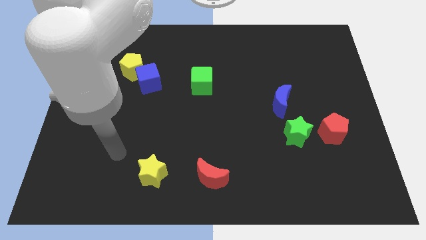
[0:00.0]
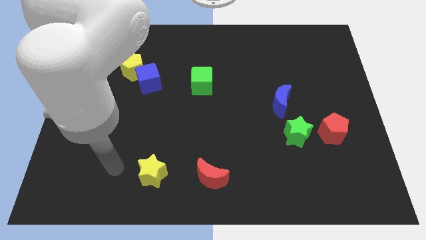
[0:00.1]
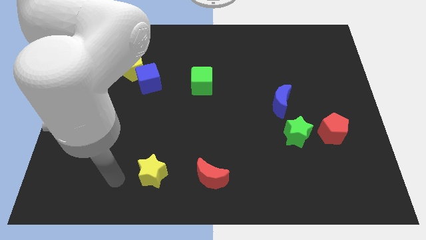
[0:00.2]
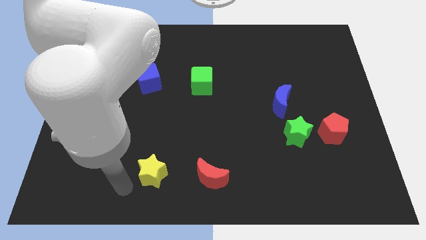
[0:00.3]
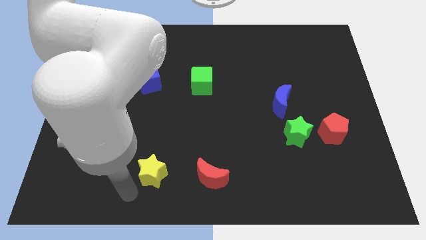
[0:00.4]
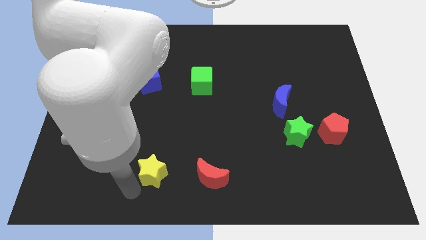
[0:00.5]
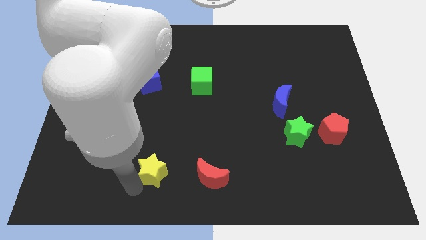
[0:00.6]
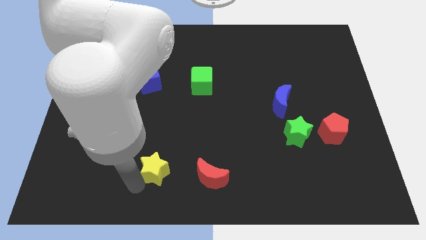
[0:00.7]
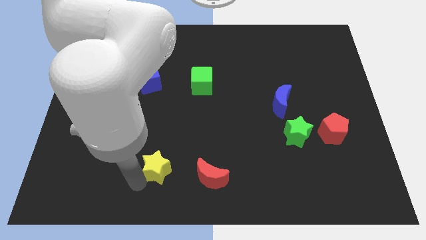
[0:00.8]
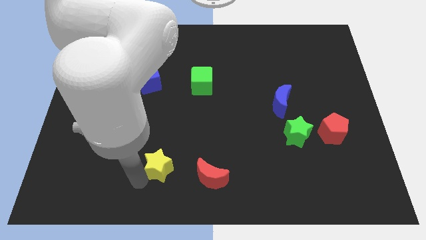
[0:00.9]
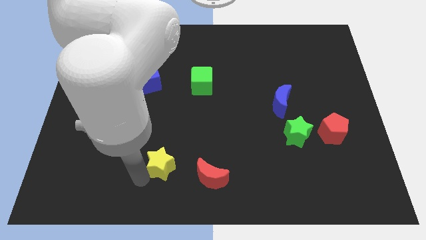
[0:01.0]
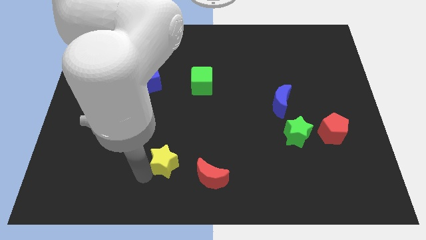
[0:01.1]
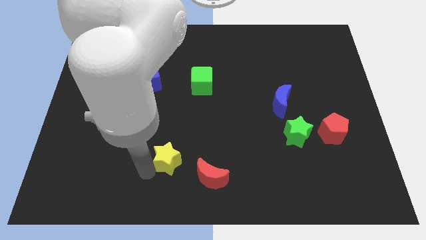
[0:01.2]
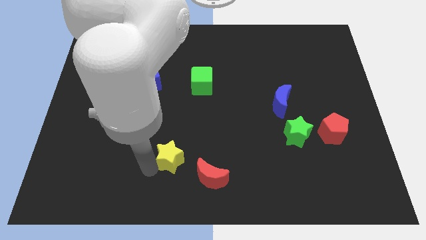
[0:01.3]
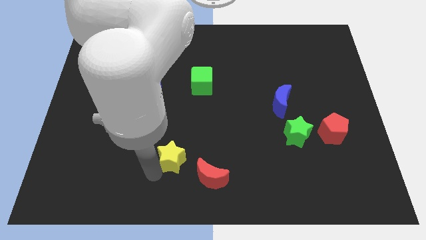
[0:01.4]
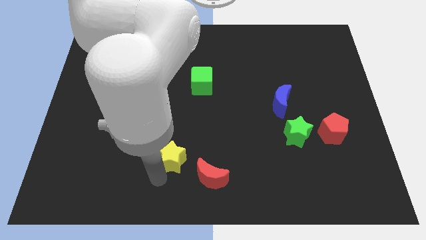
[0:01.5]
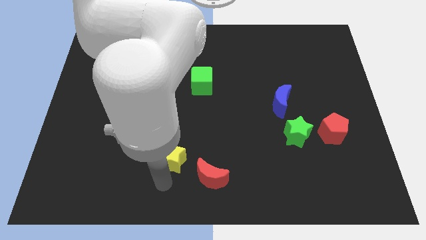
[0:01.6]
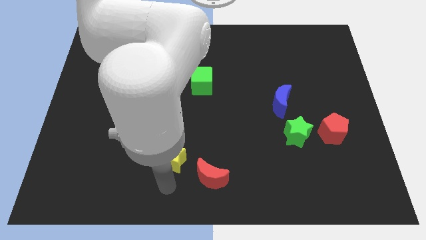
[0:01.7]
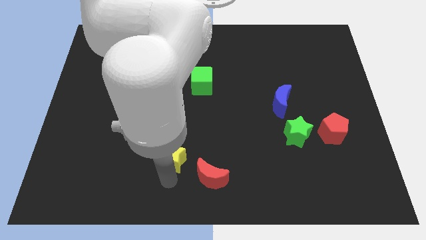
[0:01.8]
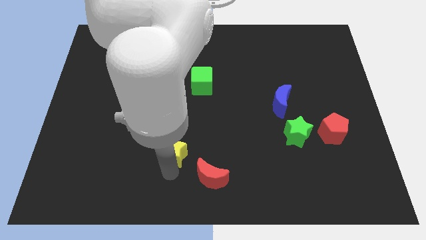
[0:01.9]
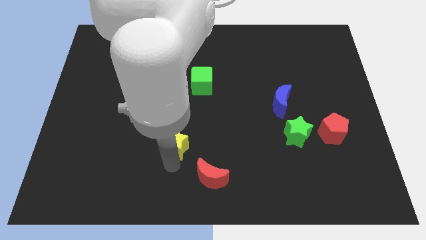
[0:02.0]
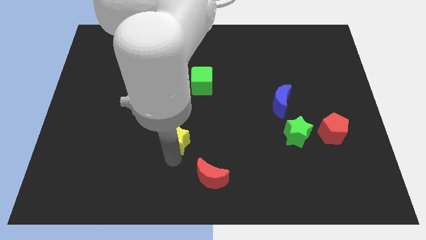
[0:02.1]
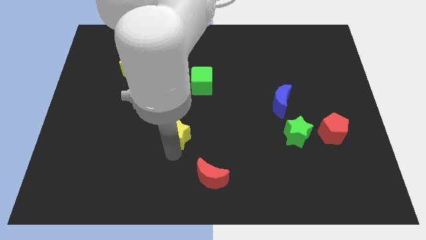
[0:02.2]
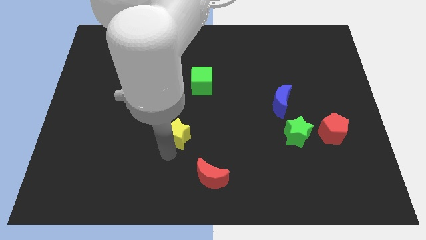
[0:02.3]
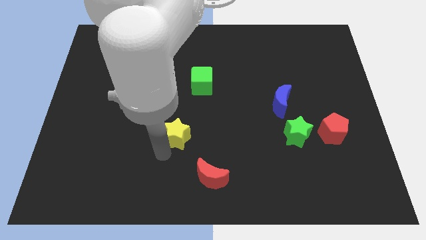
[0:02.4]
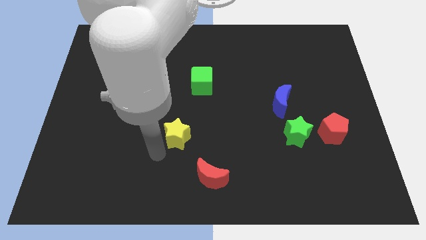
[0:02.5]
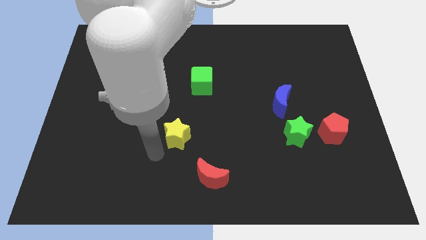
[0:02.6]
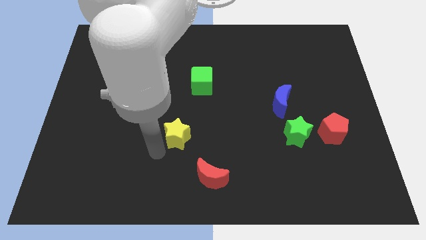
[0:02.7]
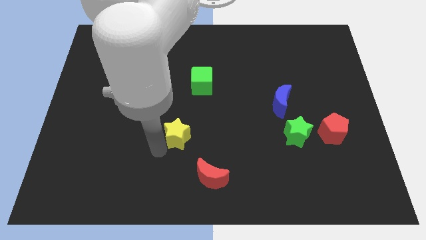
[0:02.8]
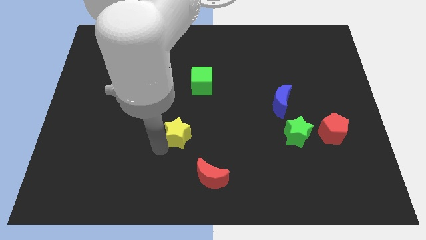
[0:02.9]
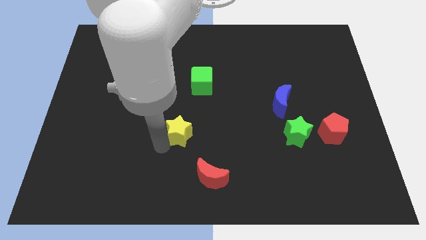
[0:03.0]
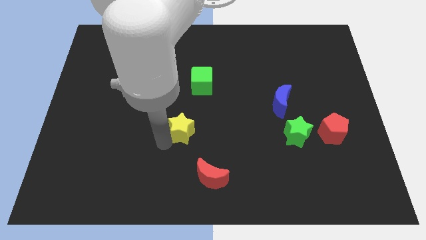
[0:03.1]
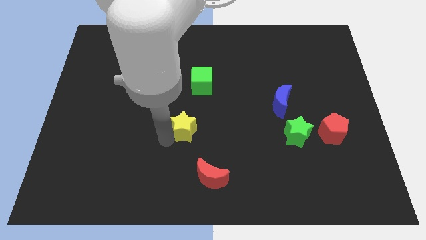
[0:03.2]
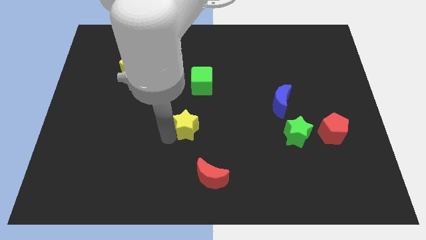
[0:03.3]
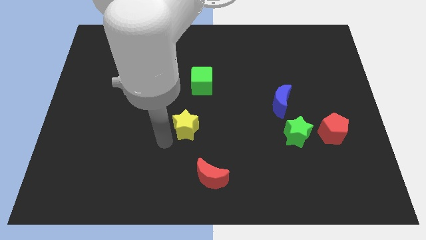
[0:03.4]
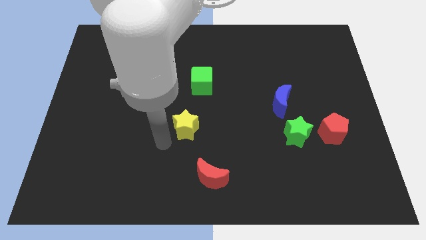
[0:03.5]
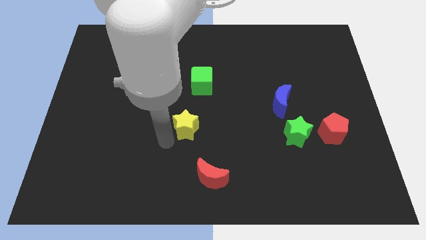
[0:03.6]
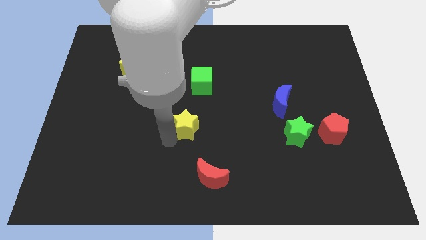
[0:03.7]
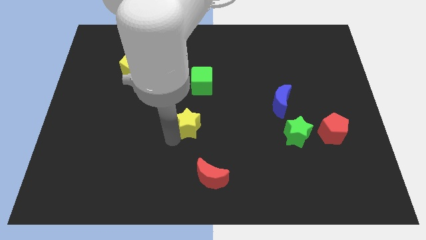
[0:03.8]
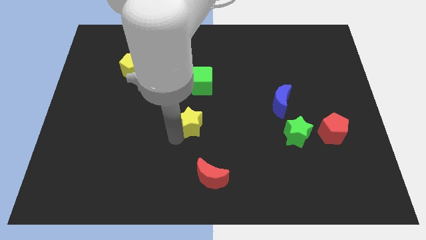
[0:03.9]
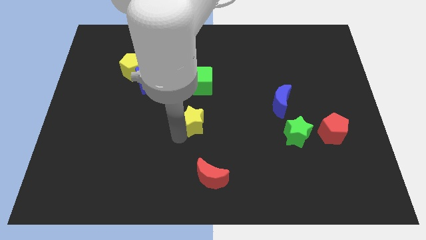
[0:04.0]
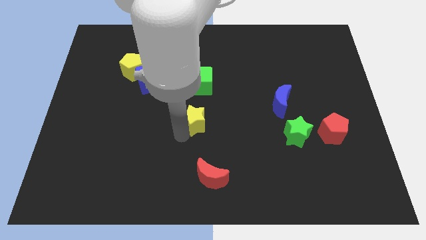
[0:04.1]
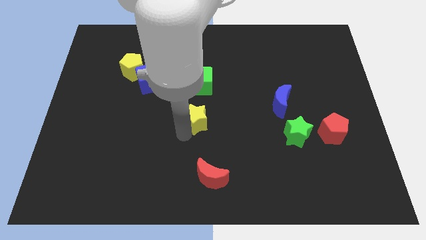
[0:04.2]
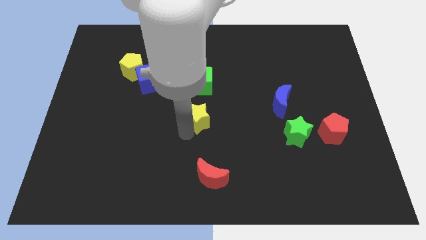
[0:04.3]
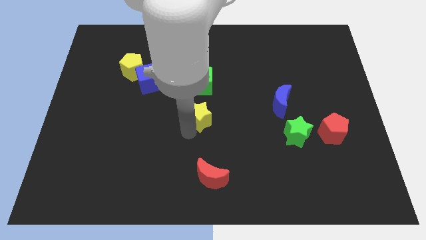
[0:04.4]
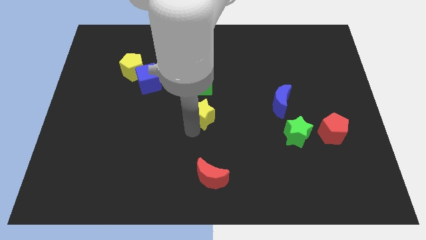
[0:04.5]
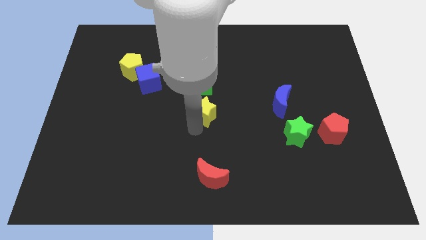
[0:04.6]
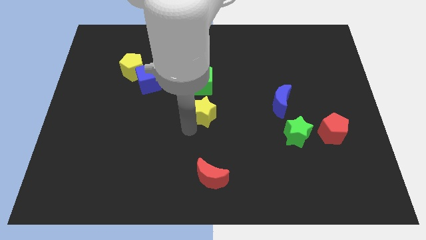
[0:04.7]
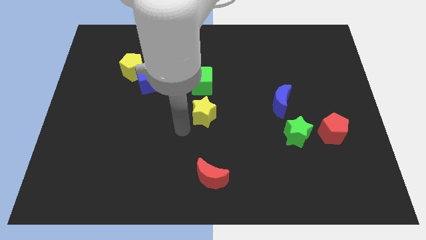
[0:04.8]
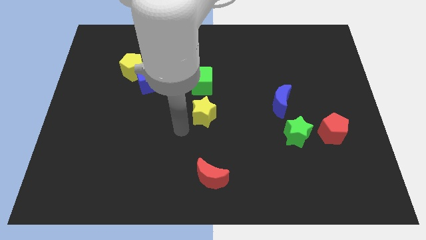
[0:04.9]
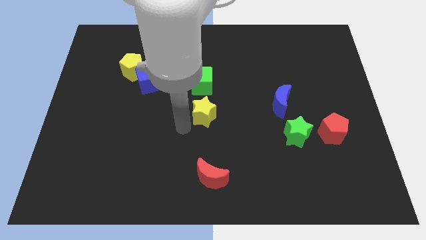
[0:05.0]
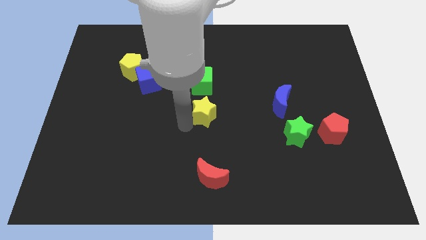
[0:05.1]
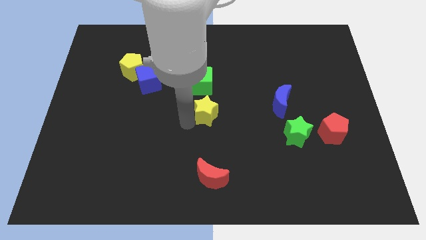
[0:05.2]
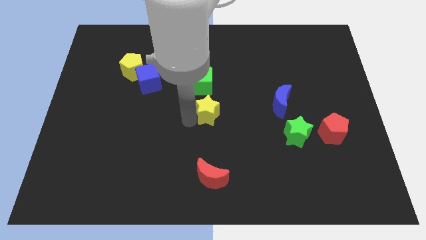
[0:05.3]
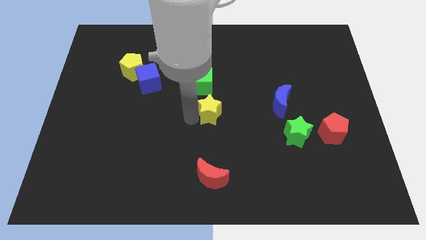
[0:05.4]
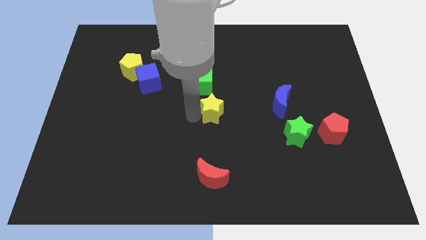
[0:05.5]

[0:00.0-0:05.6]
put the yellow star diagonally down and to the right of the green cube

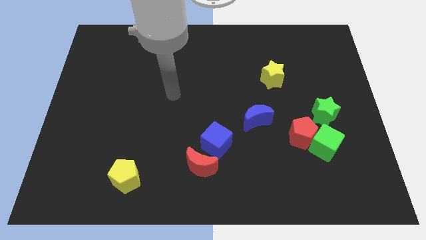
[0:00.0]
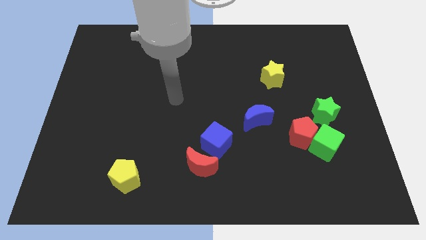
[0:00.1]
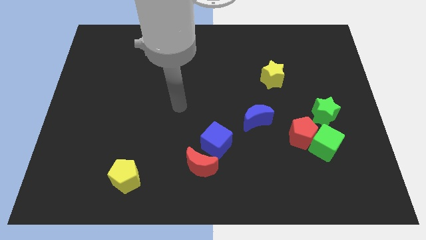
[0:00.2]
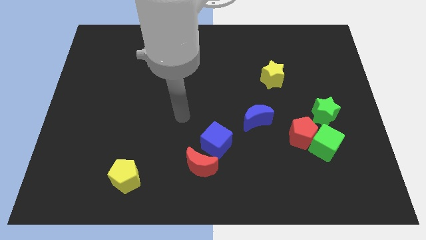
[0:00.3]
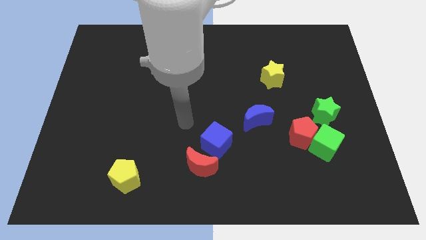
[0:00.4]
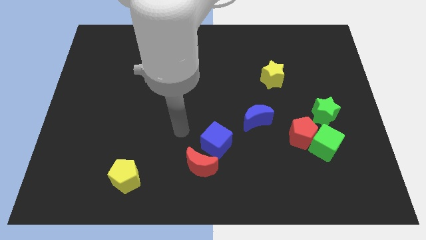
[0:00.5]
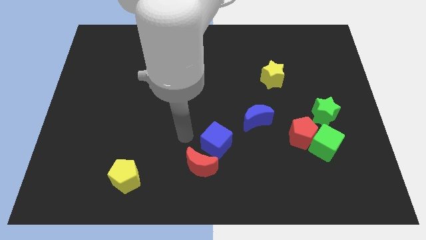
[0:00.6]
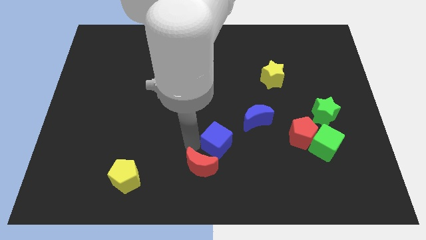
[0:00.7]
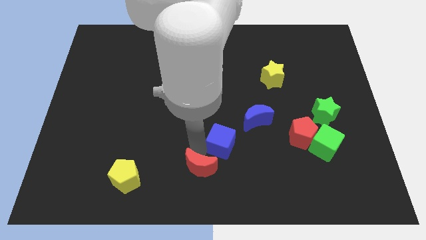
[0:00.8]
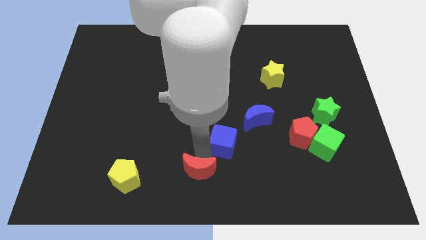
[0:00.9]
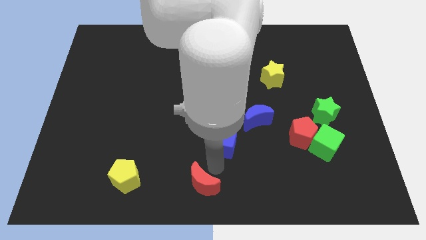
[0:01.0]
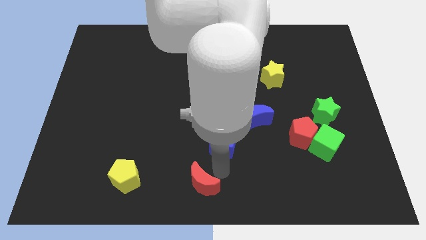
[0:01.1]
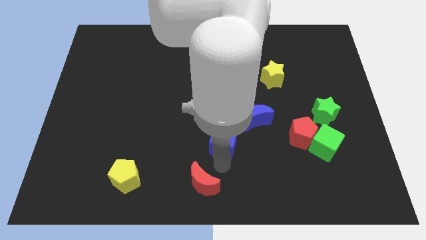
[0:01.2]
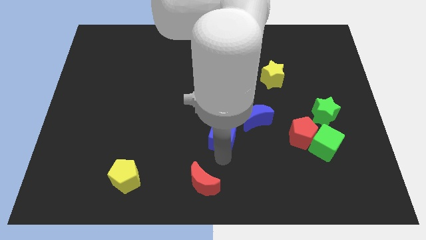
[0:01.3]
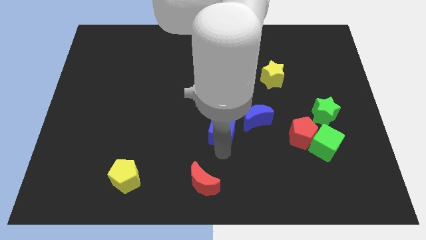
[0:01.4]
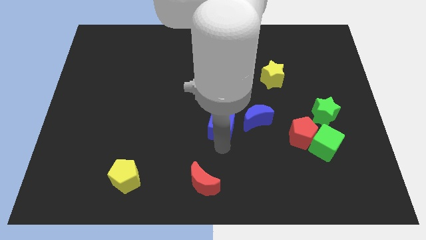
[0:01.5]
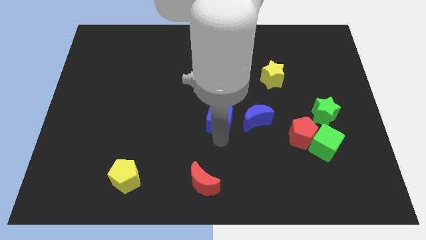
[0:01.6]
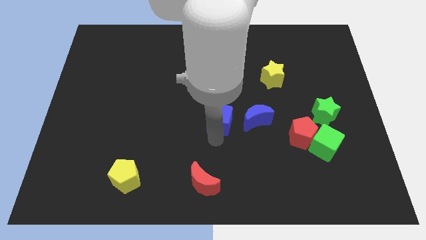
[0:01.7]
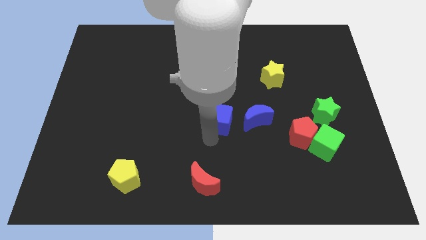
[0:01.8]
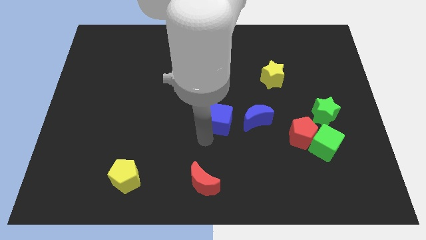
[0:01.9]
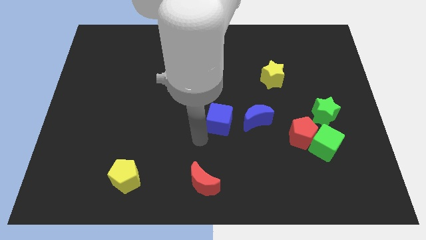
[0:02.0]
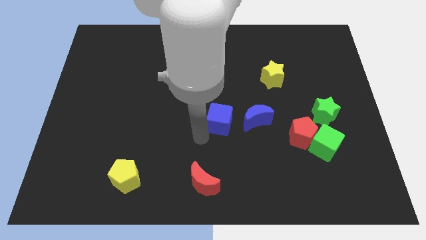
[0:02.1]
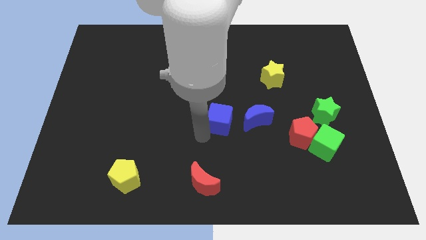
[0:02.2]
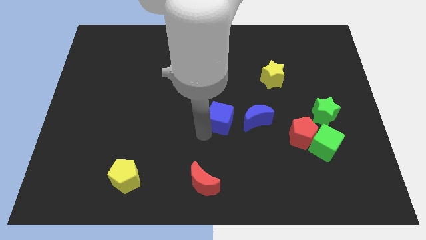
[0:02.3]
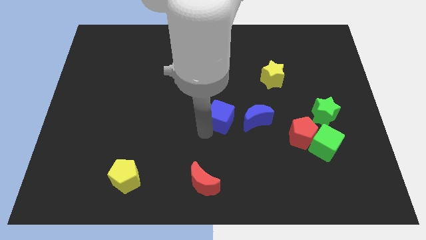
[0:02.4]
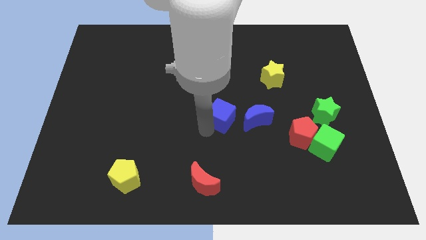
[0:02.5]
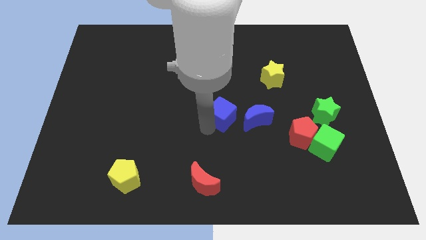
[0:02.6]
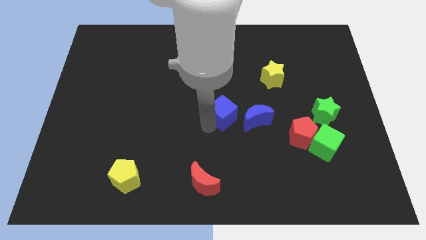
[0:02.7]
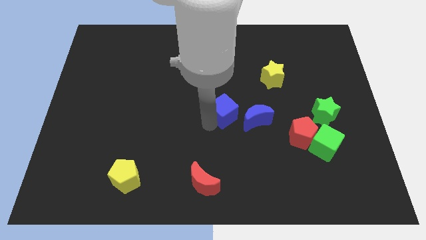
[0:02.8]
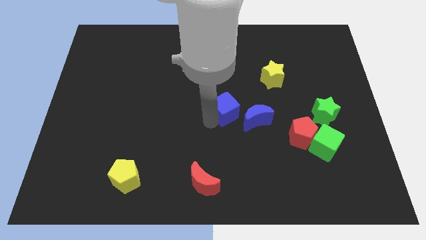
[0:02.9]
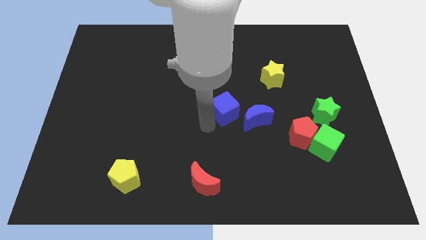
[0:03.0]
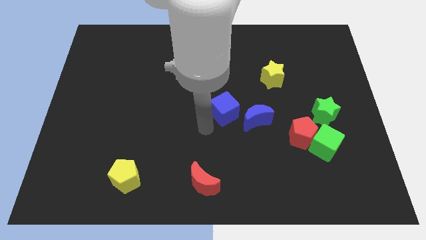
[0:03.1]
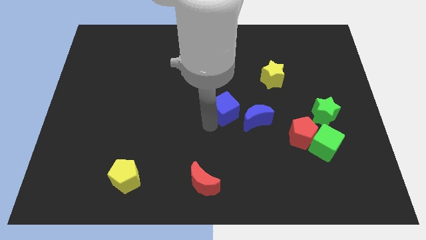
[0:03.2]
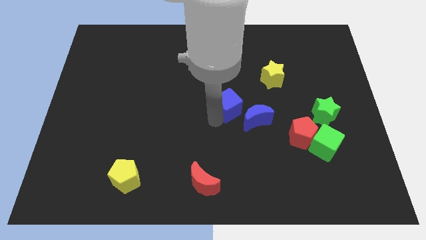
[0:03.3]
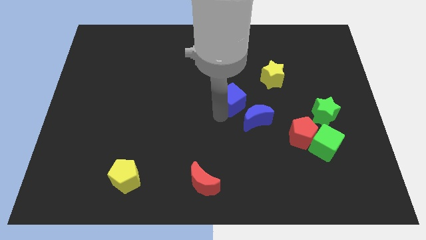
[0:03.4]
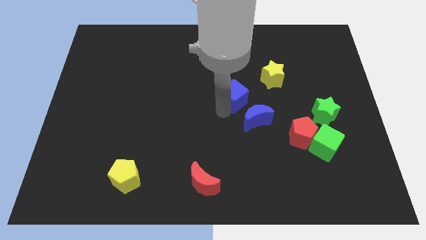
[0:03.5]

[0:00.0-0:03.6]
push the blue cube to the top of the blue moon
